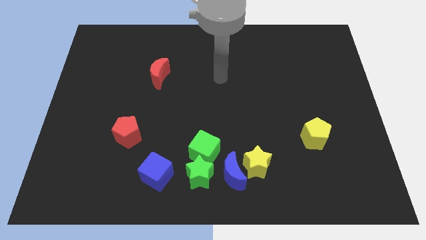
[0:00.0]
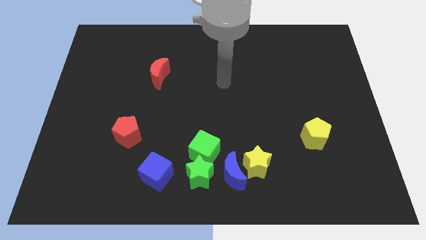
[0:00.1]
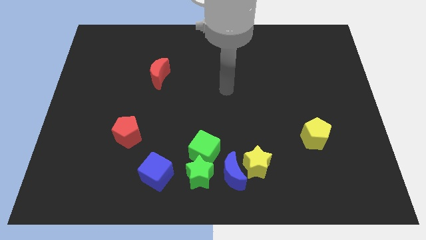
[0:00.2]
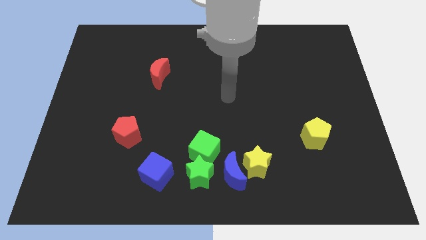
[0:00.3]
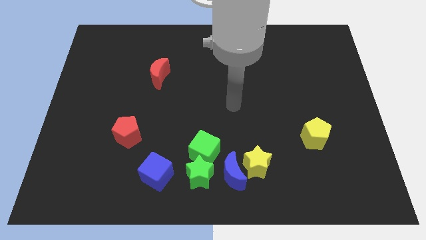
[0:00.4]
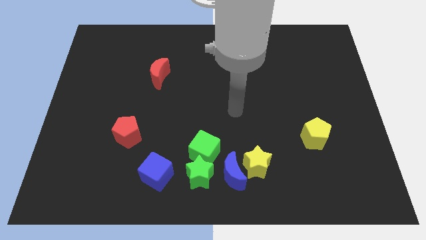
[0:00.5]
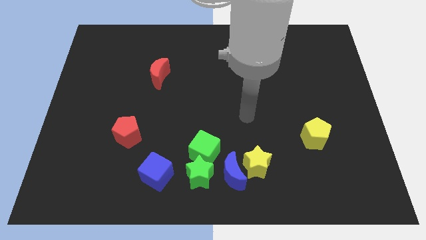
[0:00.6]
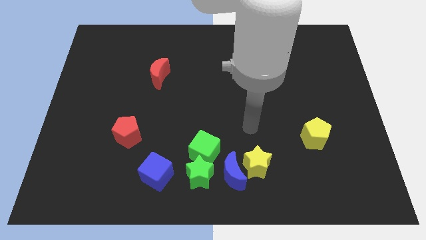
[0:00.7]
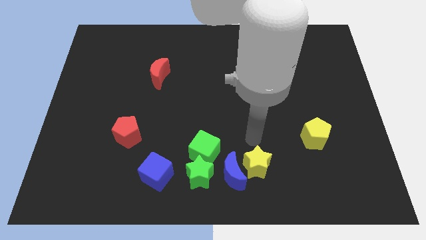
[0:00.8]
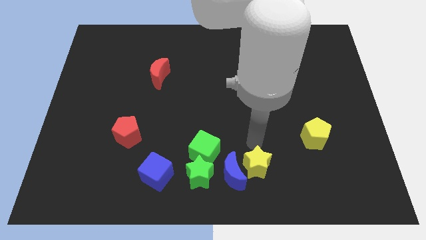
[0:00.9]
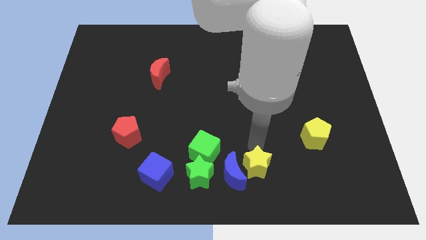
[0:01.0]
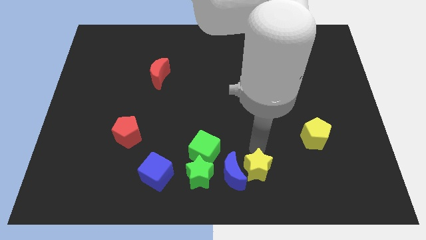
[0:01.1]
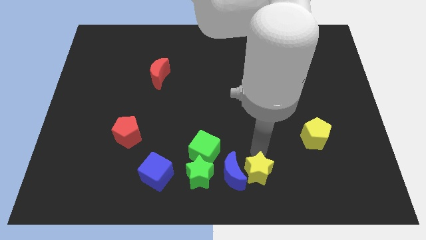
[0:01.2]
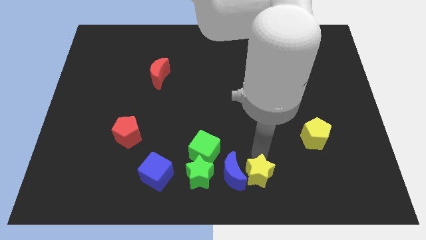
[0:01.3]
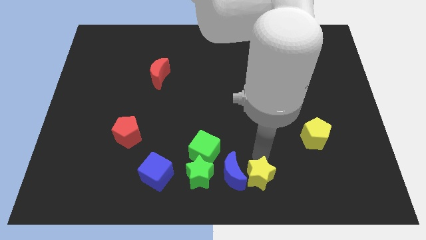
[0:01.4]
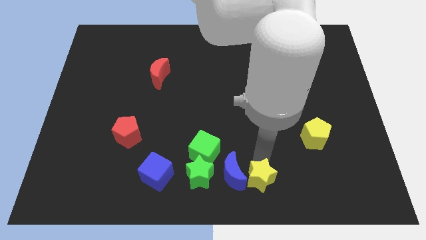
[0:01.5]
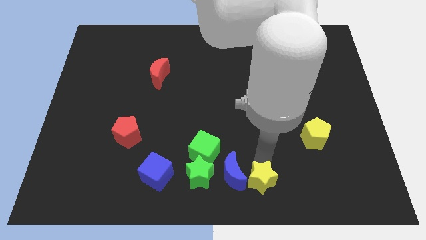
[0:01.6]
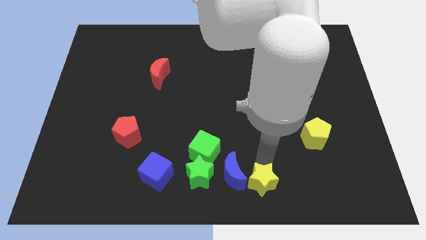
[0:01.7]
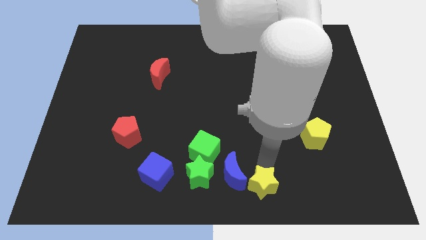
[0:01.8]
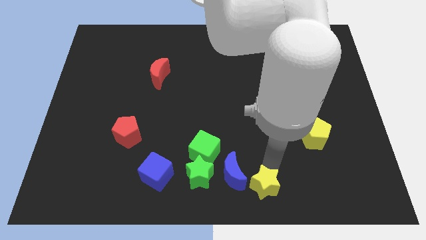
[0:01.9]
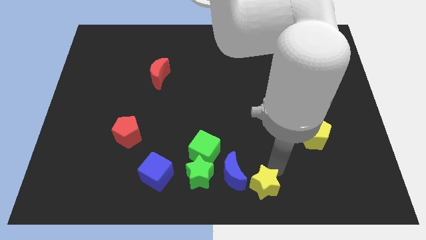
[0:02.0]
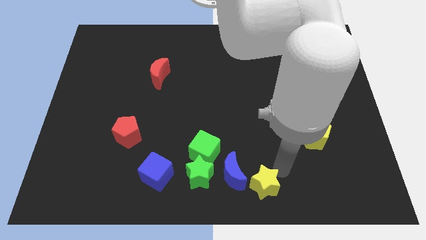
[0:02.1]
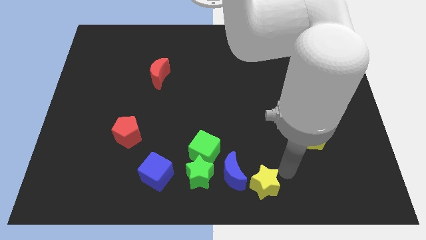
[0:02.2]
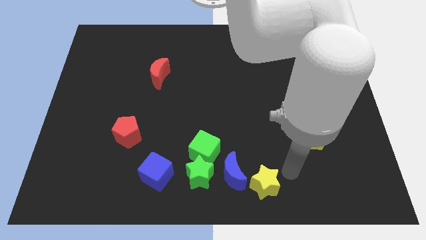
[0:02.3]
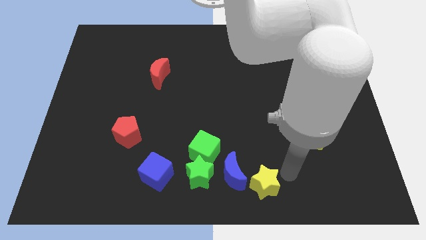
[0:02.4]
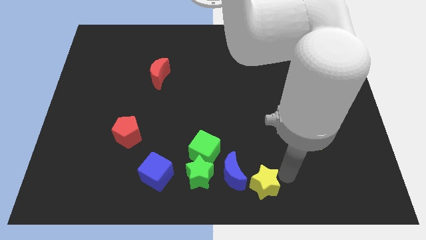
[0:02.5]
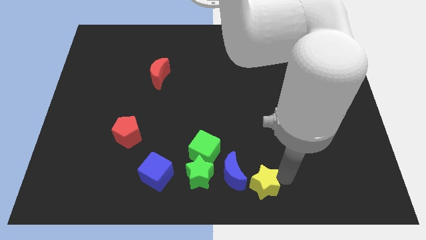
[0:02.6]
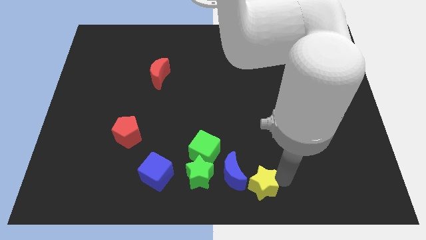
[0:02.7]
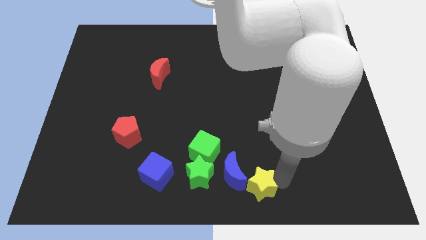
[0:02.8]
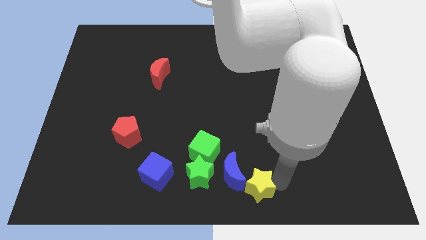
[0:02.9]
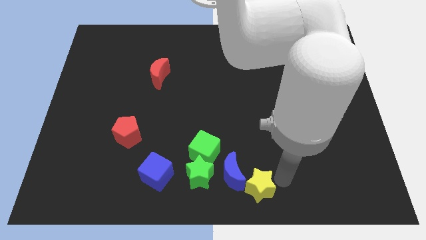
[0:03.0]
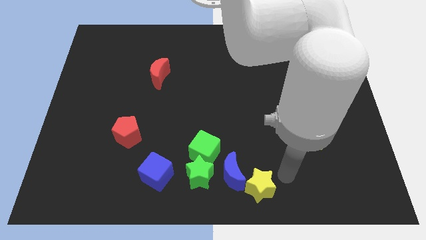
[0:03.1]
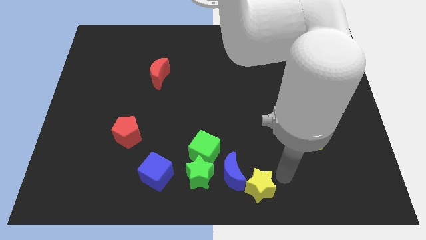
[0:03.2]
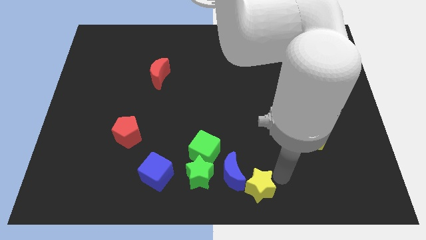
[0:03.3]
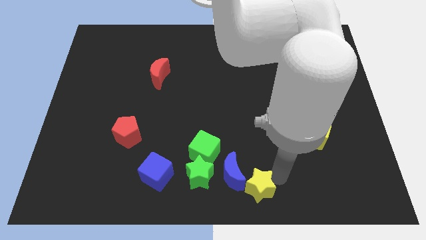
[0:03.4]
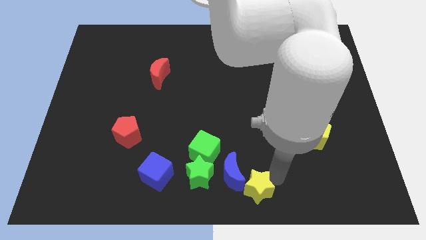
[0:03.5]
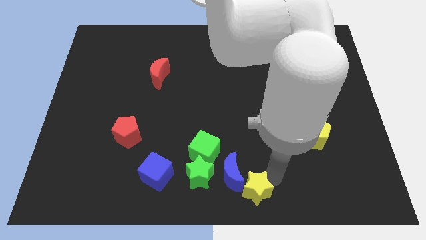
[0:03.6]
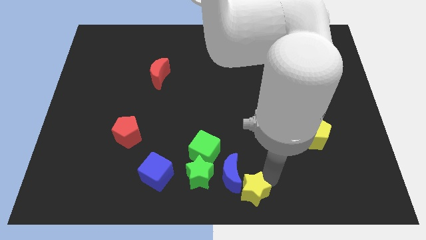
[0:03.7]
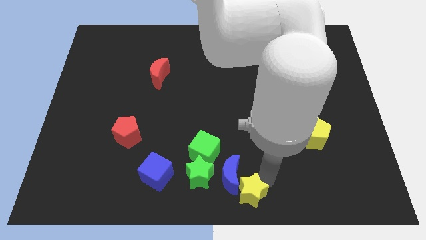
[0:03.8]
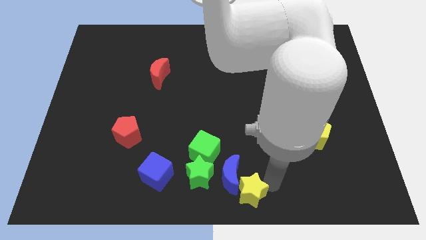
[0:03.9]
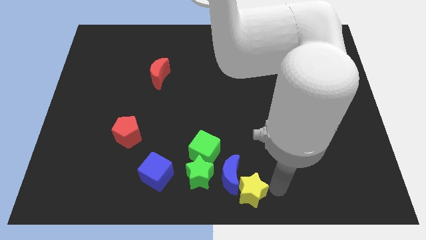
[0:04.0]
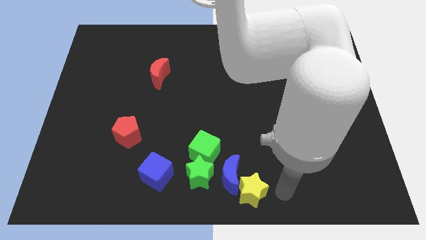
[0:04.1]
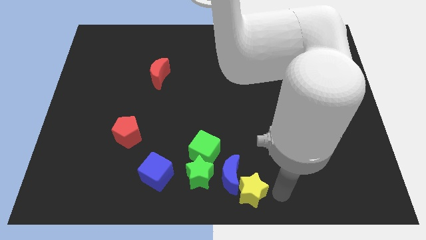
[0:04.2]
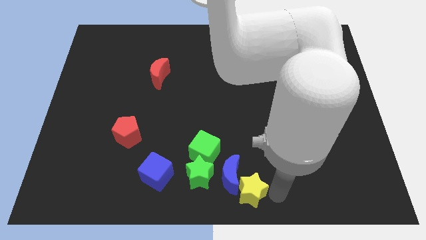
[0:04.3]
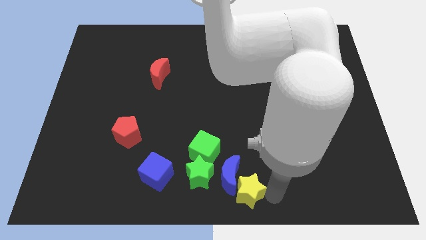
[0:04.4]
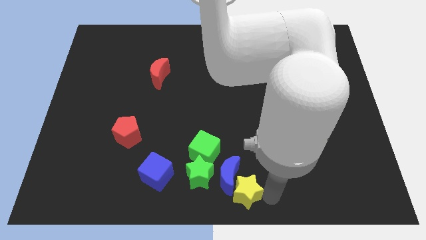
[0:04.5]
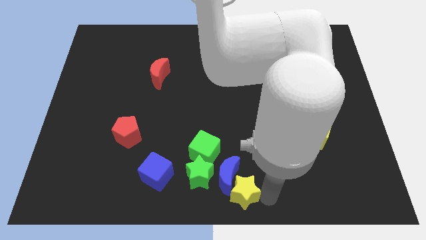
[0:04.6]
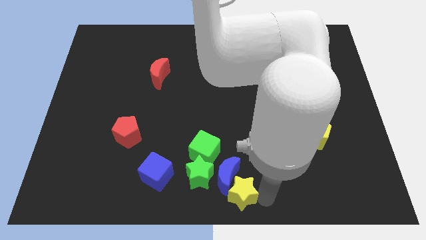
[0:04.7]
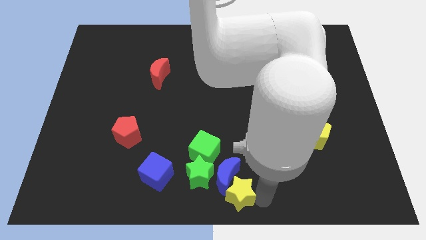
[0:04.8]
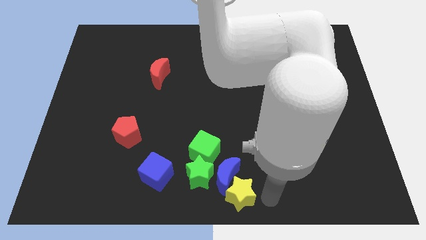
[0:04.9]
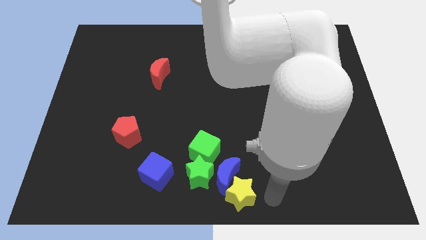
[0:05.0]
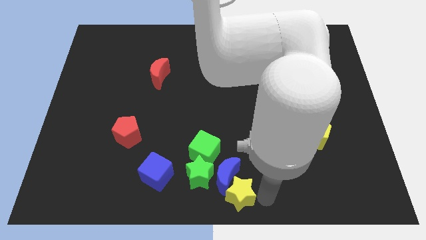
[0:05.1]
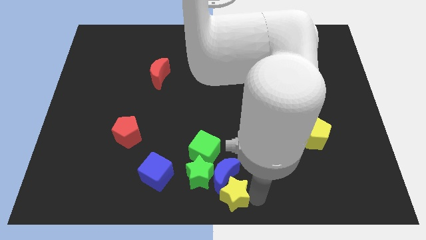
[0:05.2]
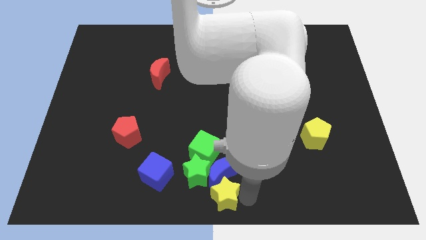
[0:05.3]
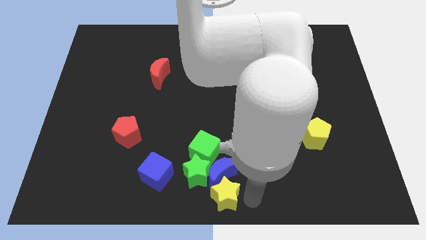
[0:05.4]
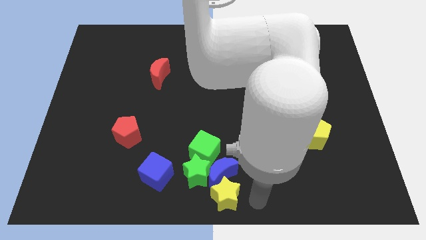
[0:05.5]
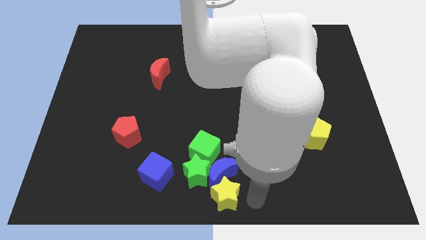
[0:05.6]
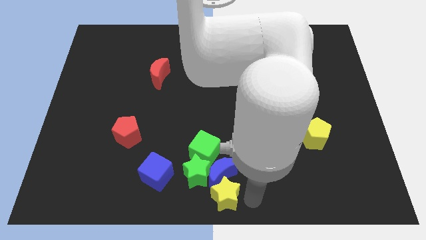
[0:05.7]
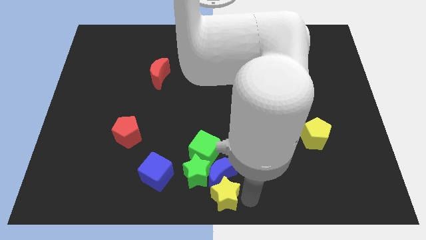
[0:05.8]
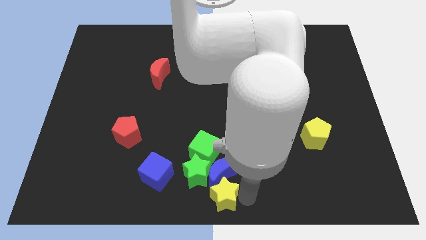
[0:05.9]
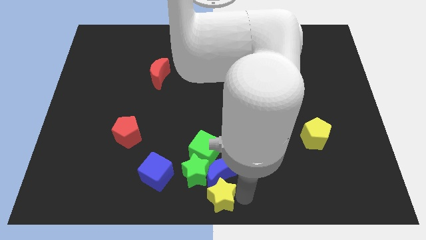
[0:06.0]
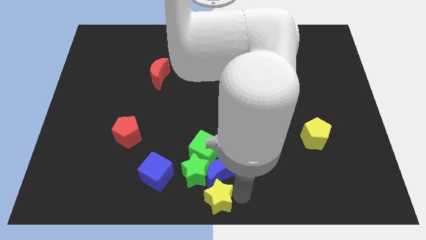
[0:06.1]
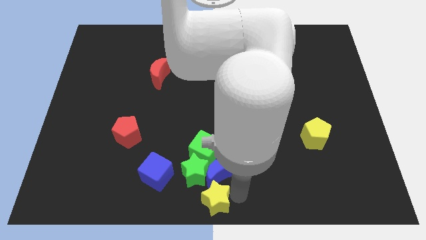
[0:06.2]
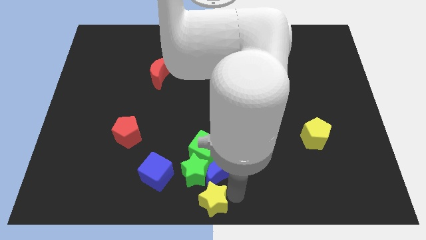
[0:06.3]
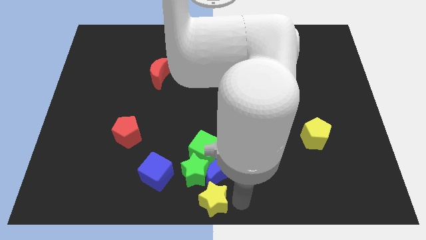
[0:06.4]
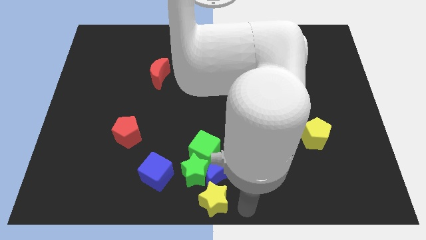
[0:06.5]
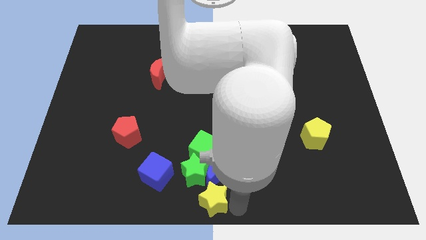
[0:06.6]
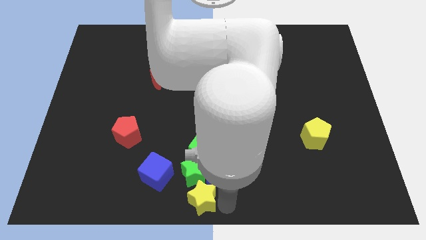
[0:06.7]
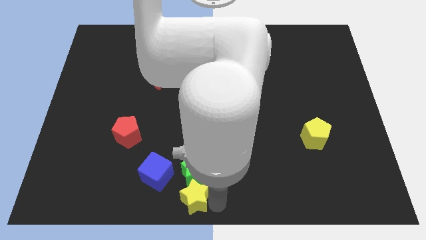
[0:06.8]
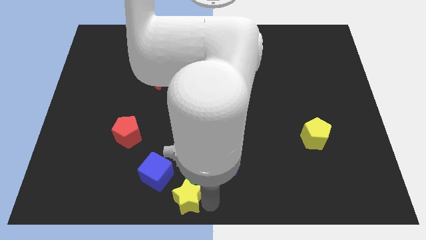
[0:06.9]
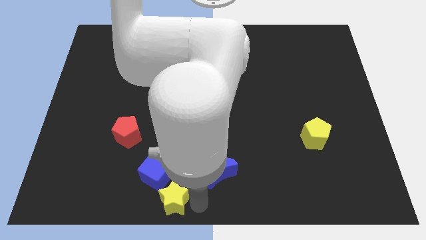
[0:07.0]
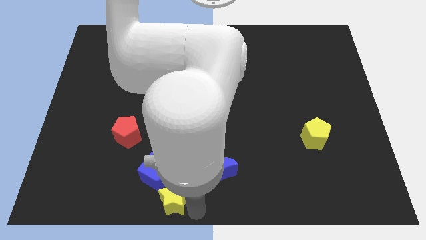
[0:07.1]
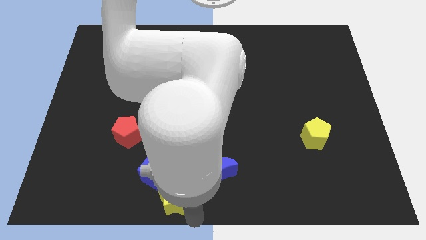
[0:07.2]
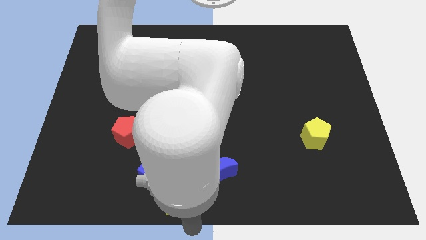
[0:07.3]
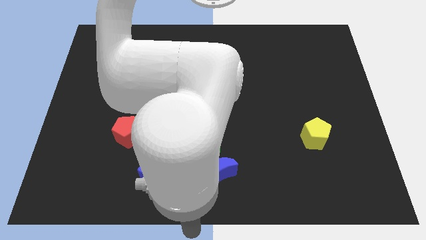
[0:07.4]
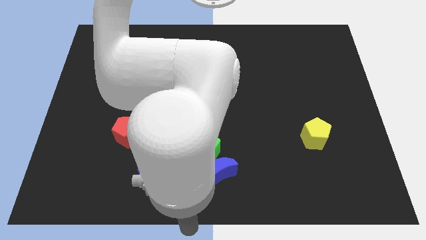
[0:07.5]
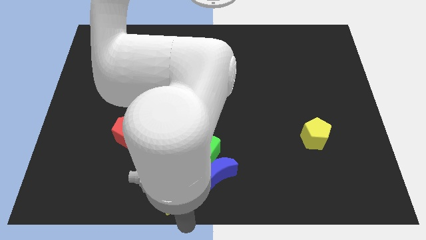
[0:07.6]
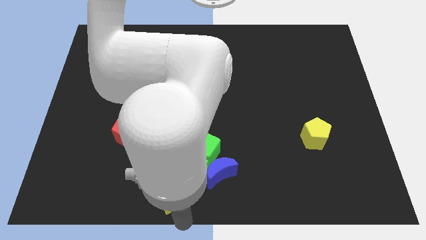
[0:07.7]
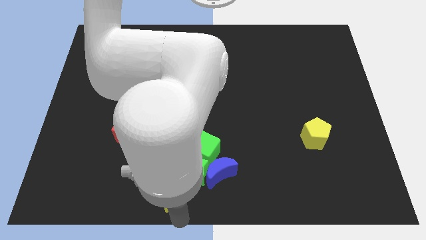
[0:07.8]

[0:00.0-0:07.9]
push the yellow star towards the blue cube
